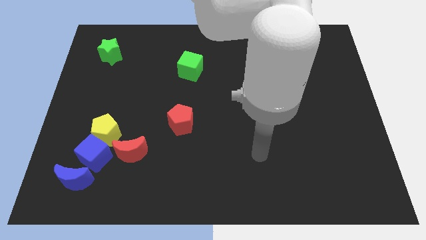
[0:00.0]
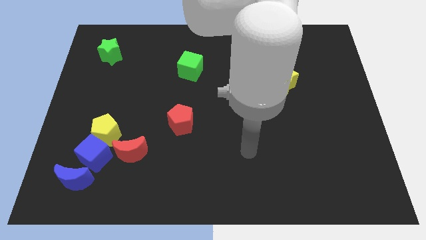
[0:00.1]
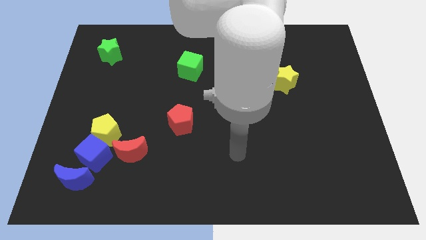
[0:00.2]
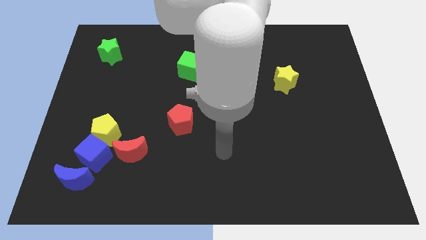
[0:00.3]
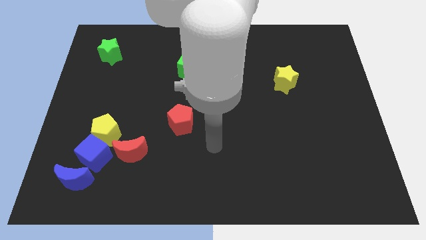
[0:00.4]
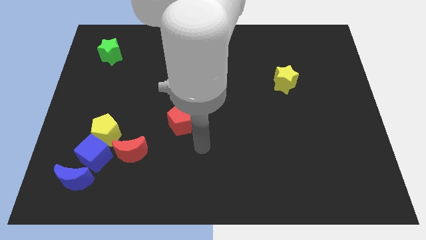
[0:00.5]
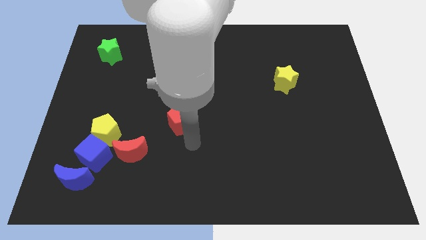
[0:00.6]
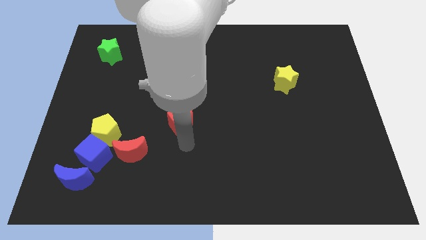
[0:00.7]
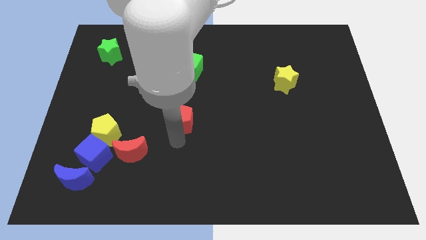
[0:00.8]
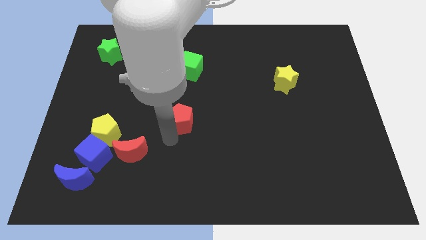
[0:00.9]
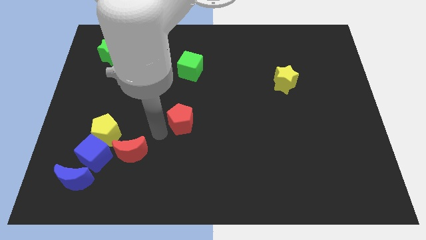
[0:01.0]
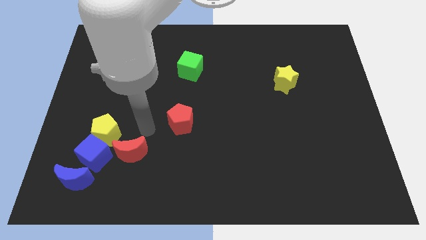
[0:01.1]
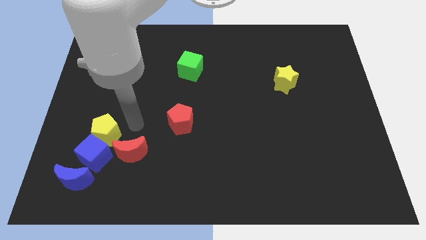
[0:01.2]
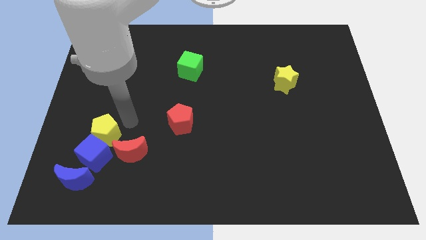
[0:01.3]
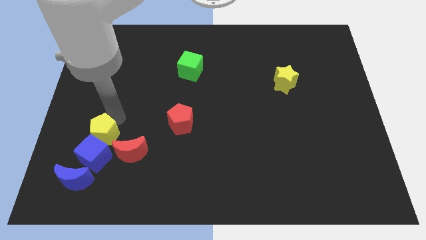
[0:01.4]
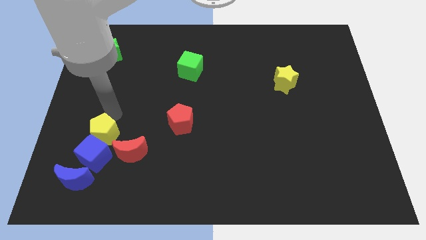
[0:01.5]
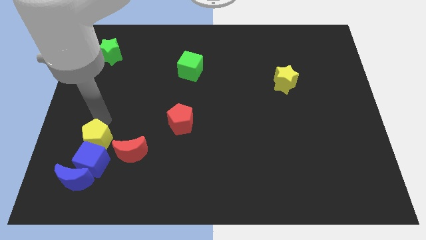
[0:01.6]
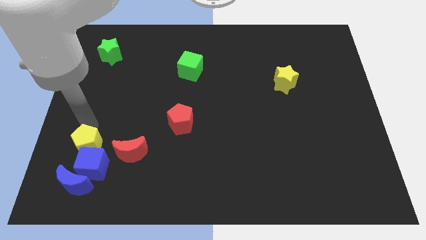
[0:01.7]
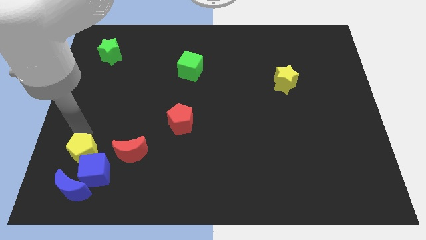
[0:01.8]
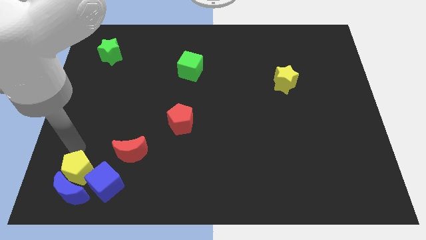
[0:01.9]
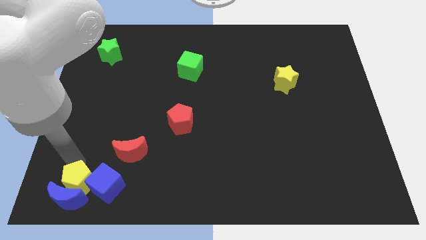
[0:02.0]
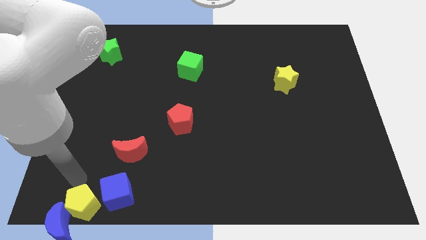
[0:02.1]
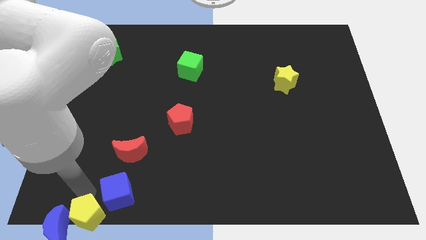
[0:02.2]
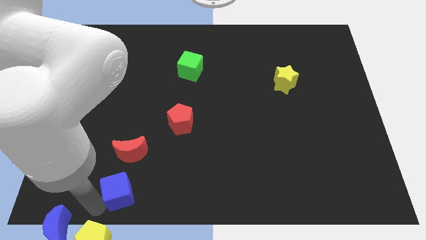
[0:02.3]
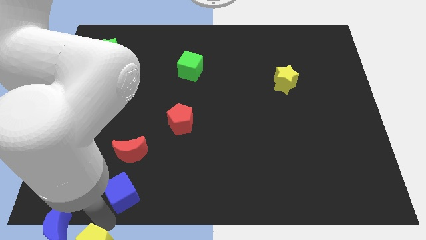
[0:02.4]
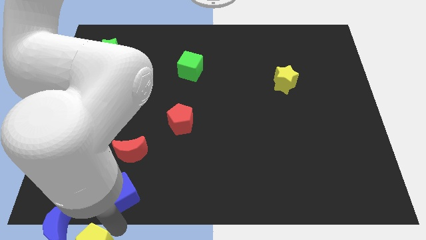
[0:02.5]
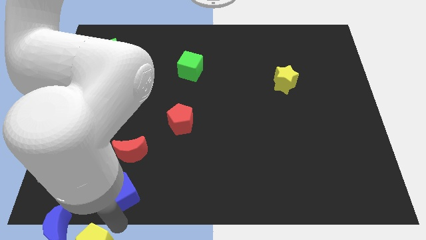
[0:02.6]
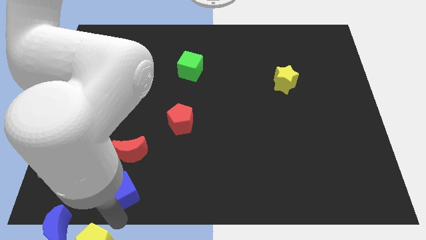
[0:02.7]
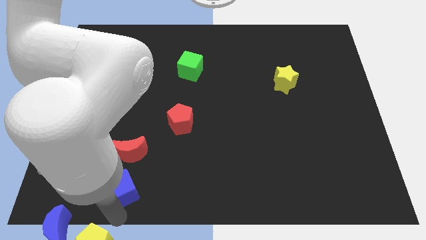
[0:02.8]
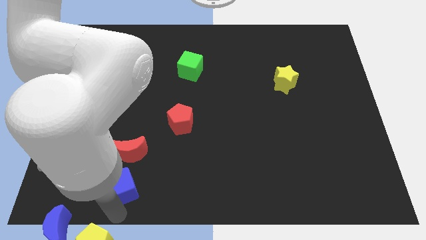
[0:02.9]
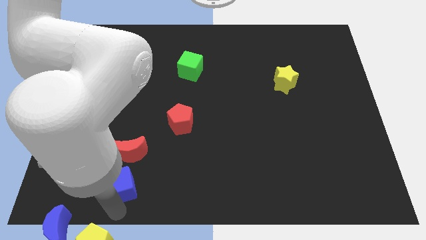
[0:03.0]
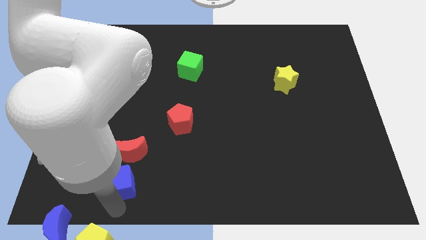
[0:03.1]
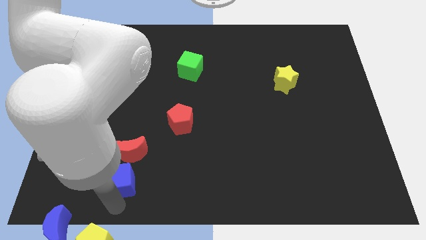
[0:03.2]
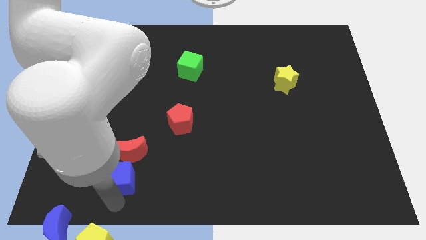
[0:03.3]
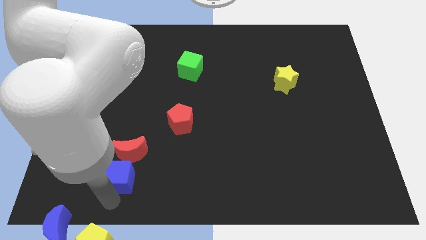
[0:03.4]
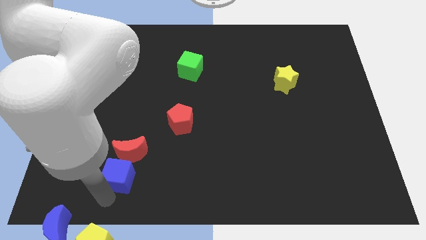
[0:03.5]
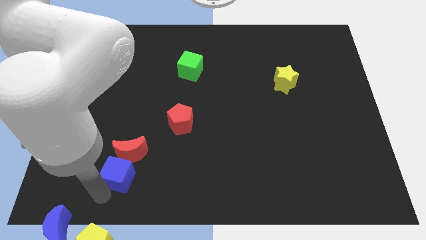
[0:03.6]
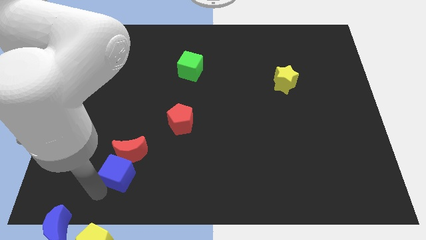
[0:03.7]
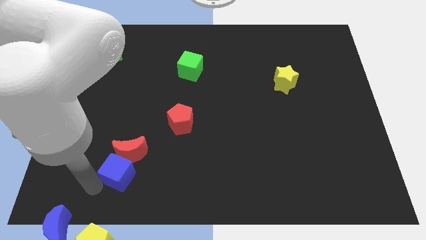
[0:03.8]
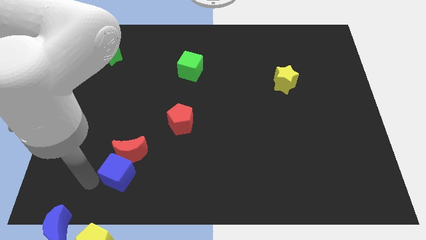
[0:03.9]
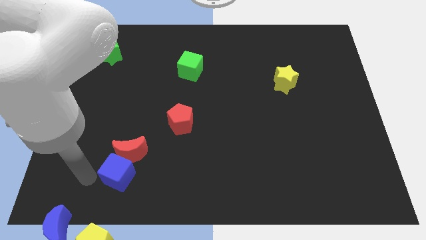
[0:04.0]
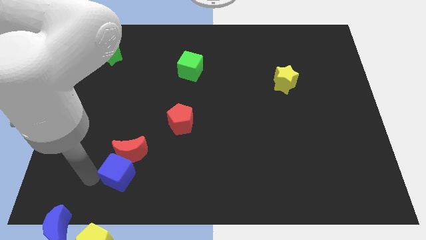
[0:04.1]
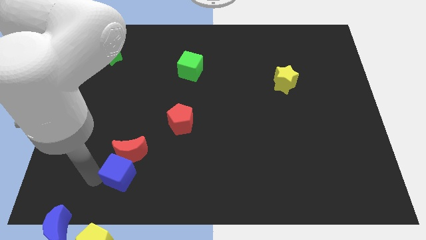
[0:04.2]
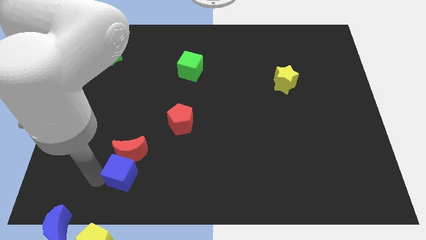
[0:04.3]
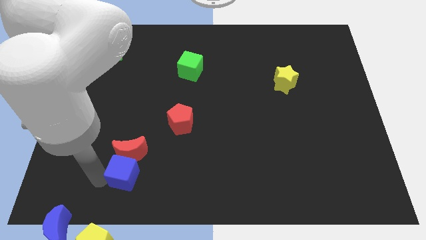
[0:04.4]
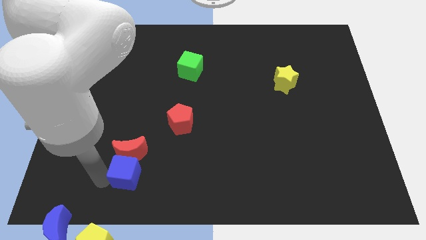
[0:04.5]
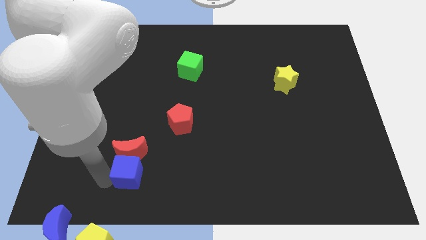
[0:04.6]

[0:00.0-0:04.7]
slightly slide the blue cube to the right

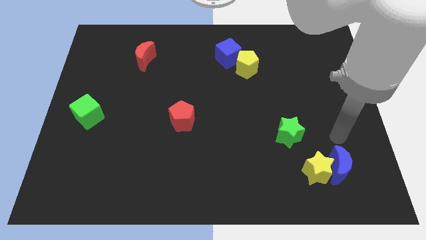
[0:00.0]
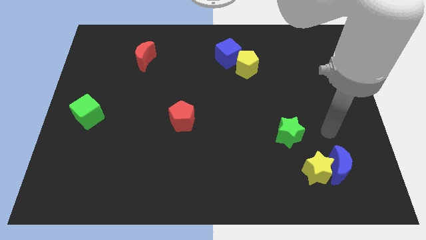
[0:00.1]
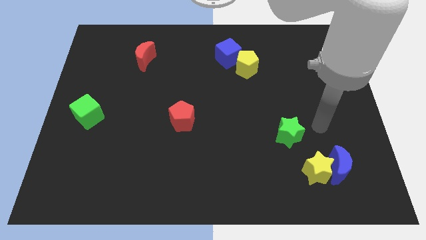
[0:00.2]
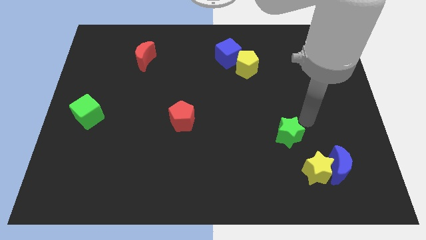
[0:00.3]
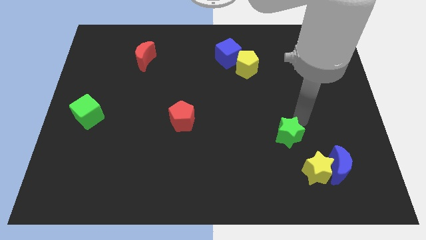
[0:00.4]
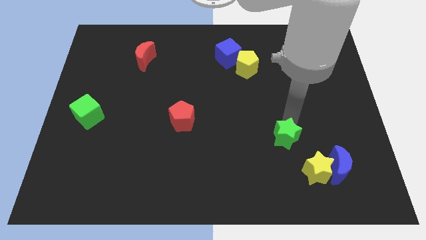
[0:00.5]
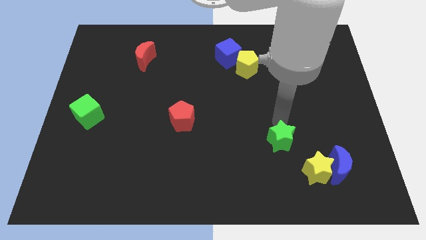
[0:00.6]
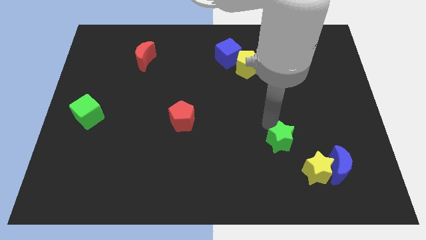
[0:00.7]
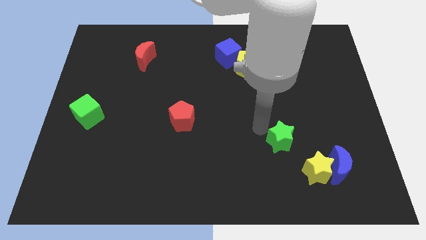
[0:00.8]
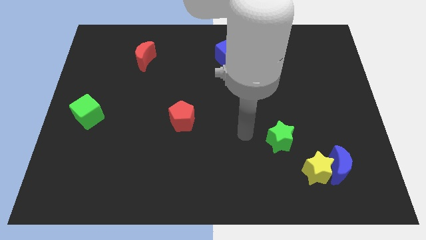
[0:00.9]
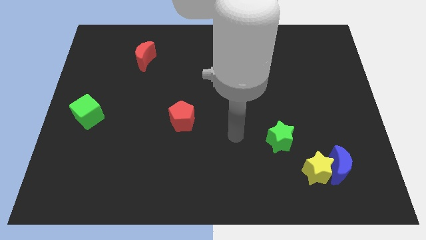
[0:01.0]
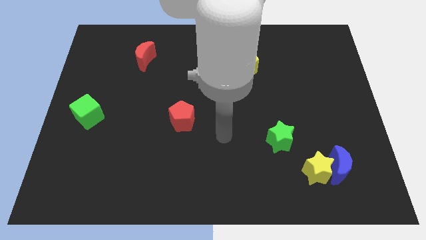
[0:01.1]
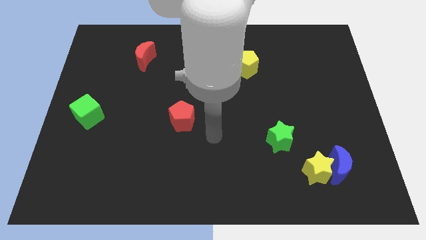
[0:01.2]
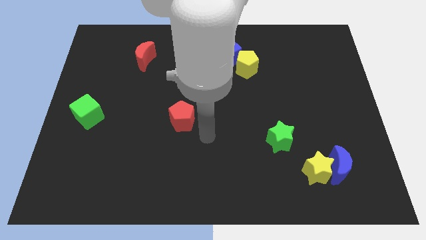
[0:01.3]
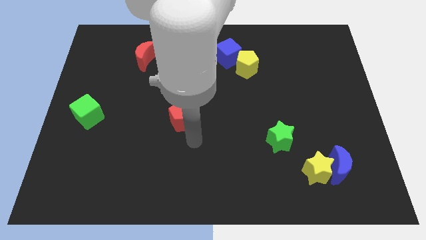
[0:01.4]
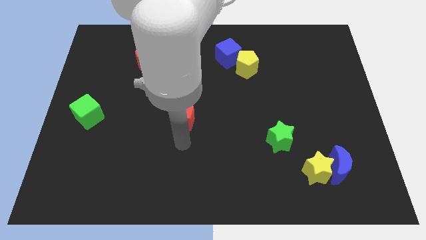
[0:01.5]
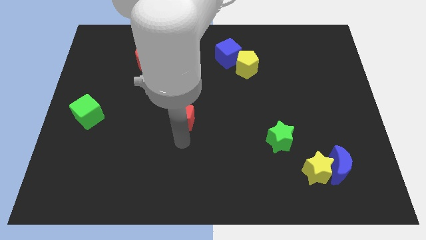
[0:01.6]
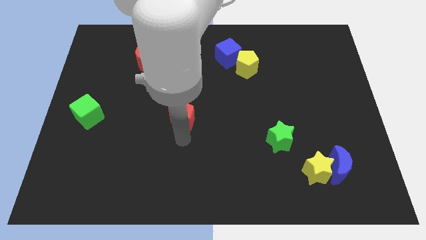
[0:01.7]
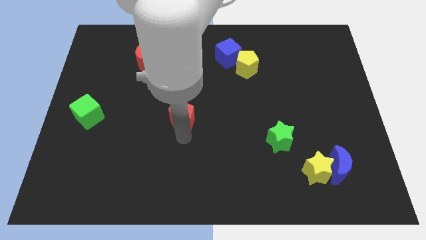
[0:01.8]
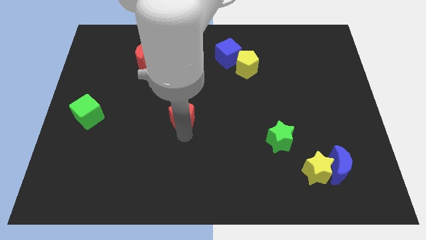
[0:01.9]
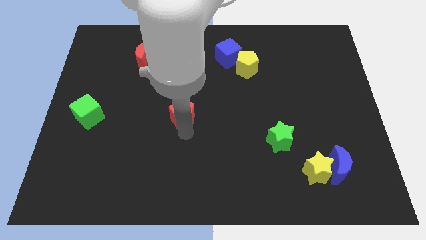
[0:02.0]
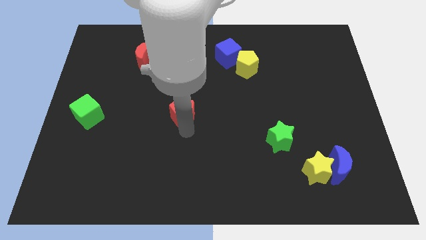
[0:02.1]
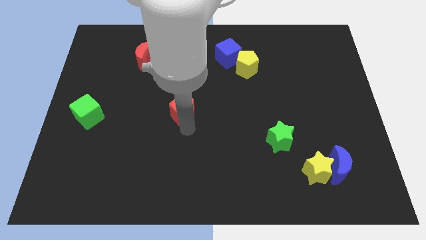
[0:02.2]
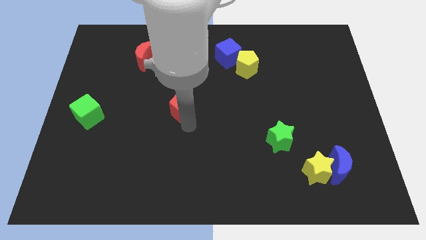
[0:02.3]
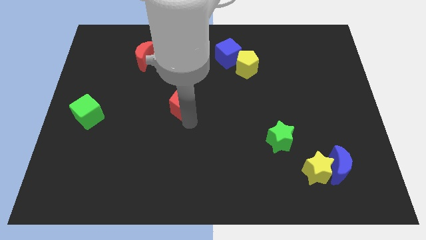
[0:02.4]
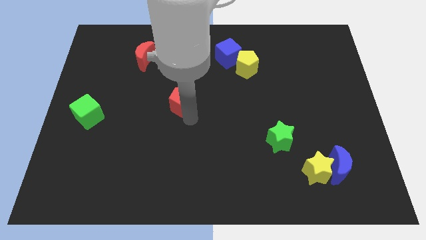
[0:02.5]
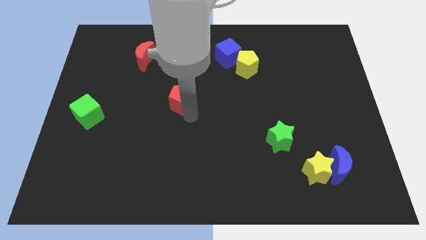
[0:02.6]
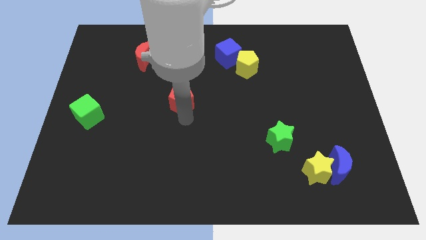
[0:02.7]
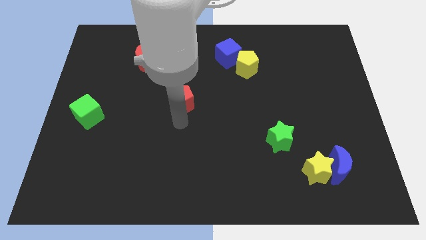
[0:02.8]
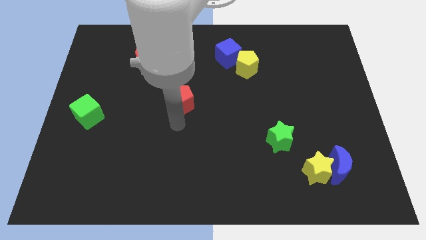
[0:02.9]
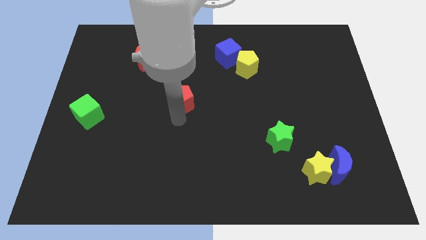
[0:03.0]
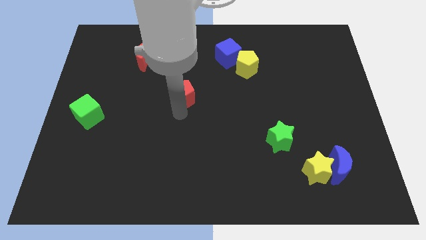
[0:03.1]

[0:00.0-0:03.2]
slide the red pentagon slightly upwards
